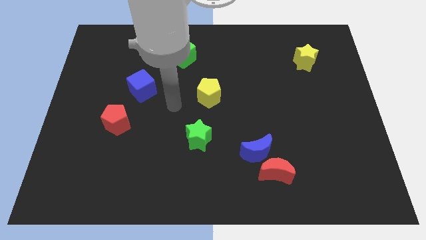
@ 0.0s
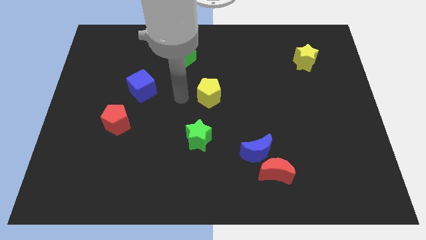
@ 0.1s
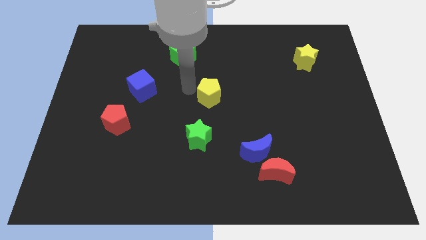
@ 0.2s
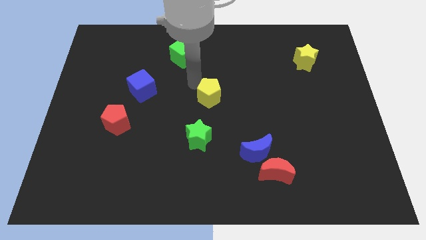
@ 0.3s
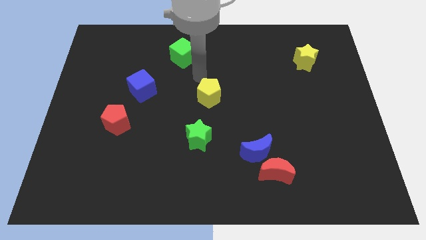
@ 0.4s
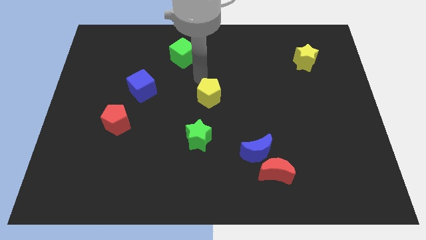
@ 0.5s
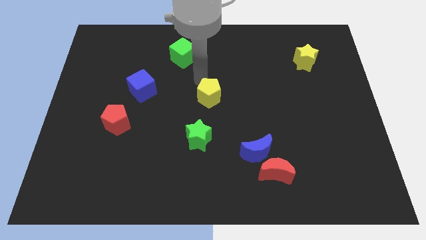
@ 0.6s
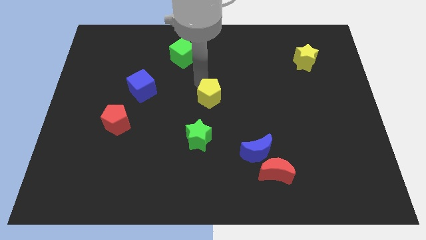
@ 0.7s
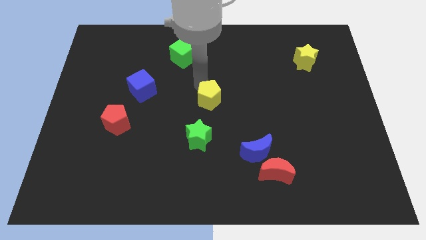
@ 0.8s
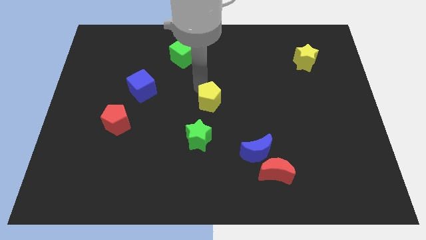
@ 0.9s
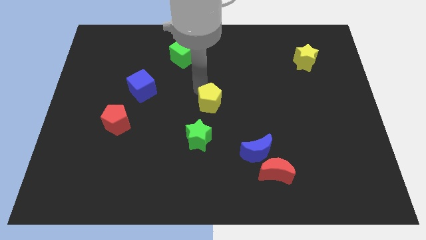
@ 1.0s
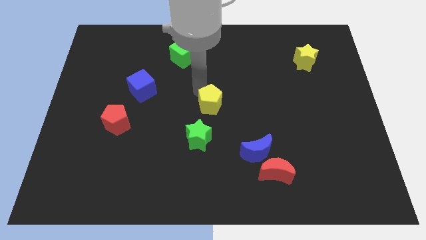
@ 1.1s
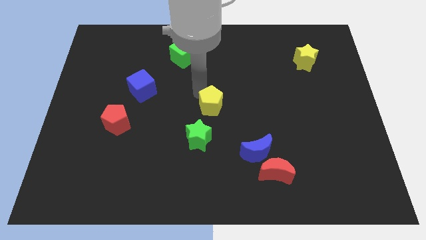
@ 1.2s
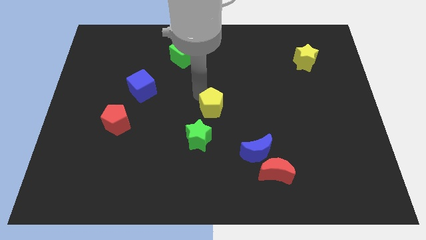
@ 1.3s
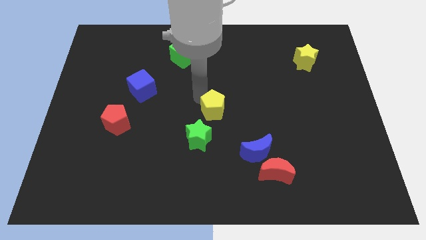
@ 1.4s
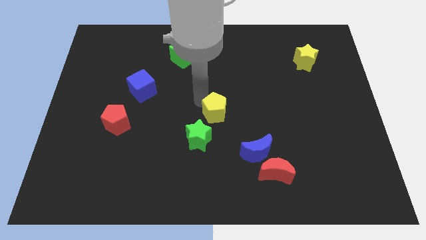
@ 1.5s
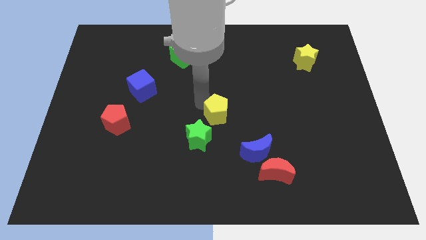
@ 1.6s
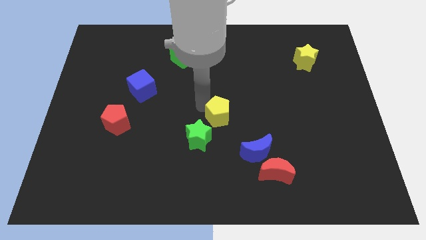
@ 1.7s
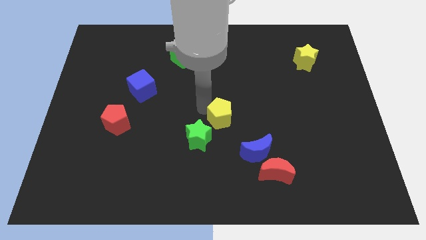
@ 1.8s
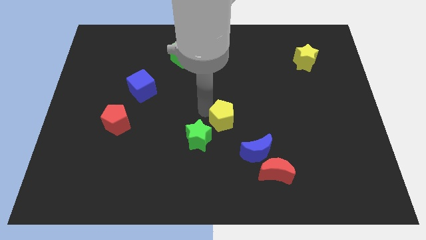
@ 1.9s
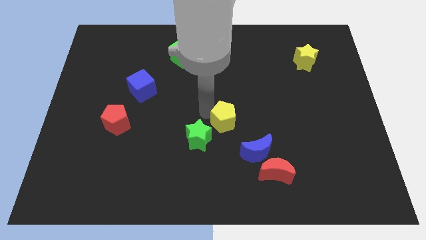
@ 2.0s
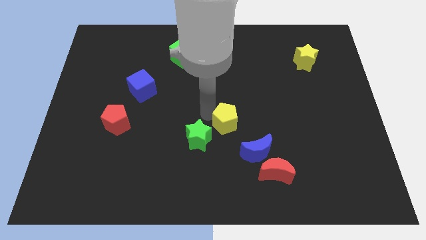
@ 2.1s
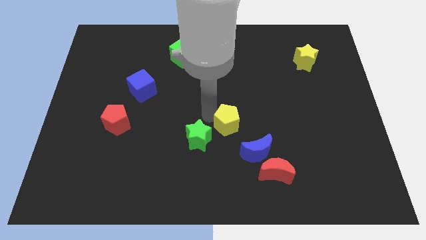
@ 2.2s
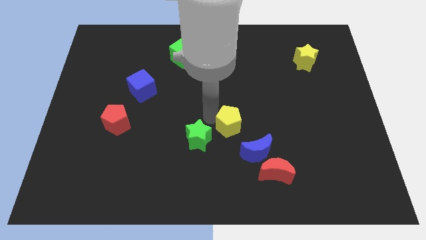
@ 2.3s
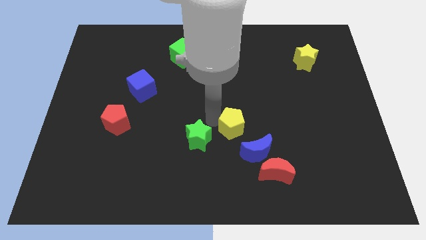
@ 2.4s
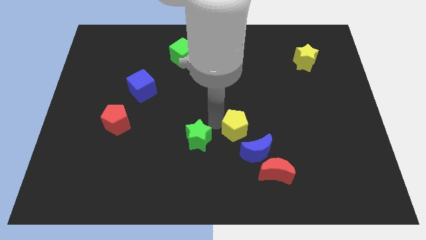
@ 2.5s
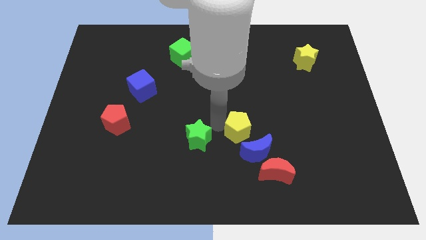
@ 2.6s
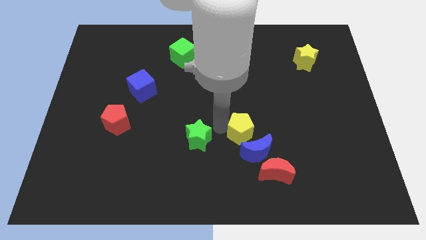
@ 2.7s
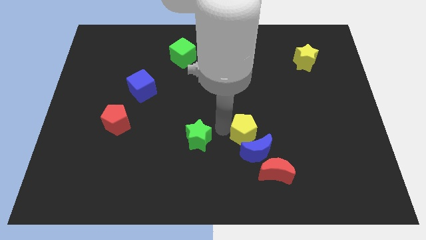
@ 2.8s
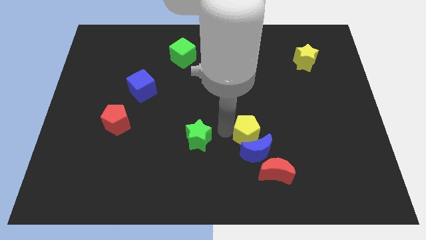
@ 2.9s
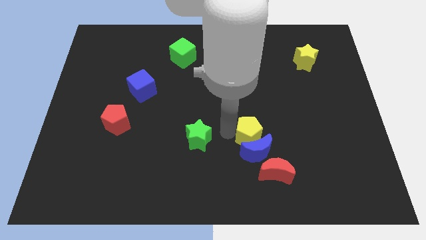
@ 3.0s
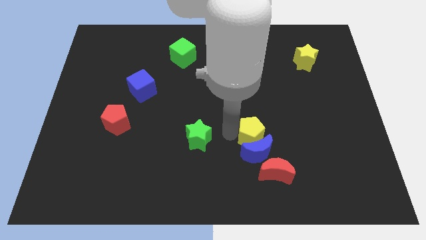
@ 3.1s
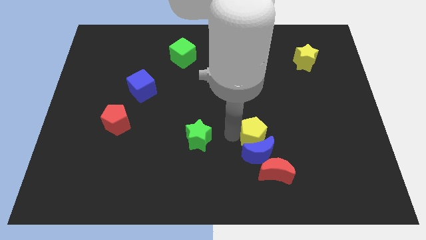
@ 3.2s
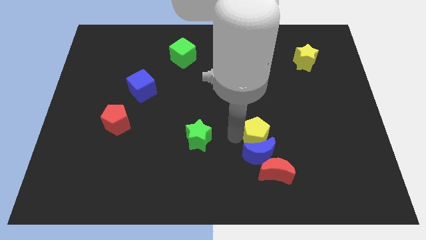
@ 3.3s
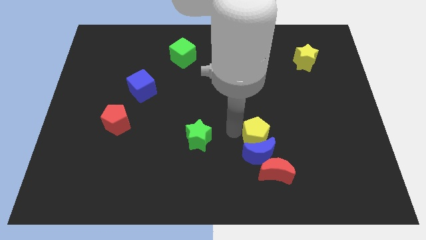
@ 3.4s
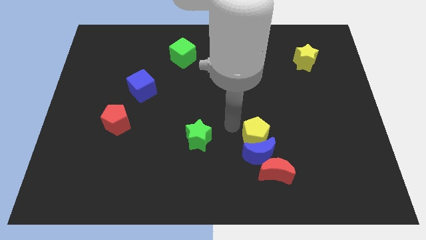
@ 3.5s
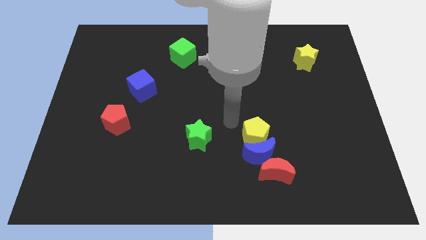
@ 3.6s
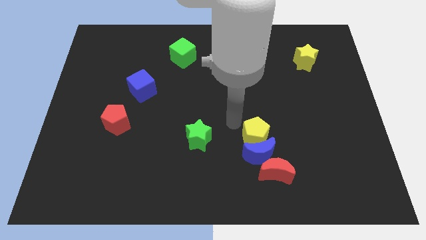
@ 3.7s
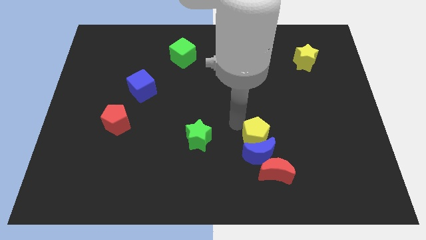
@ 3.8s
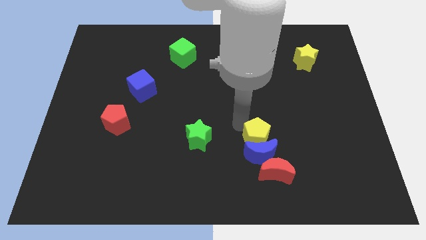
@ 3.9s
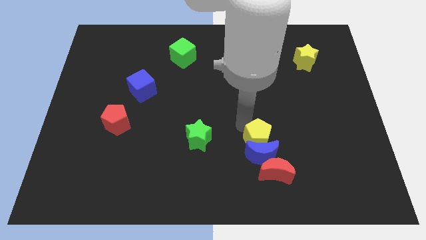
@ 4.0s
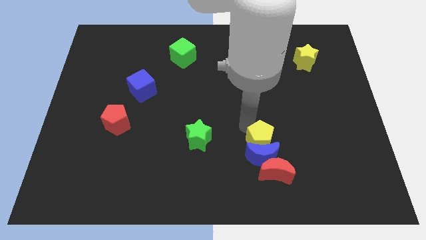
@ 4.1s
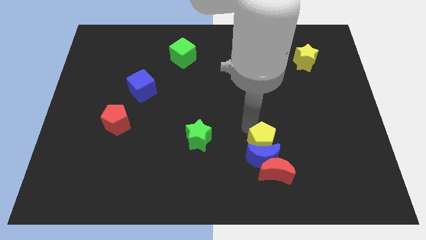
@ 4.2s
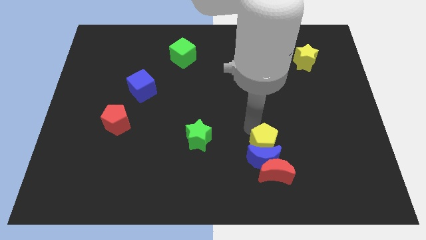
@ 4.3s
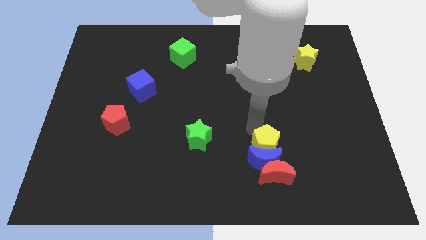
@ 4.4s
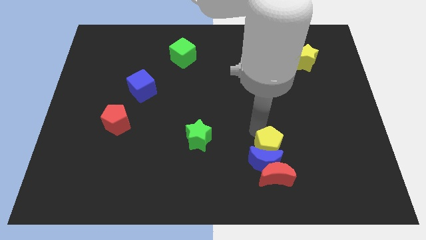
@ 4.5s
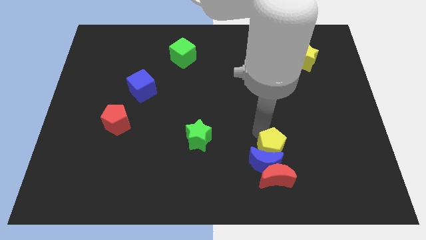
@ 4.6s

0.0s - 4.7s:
push the yellow pentagon diagonally down and to the right

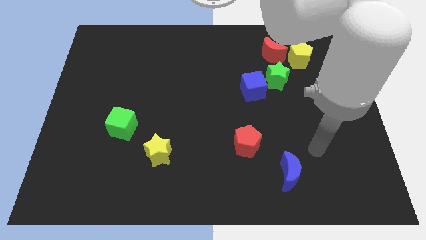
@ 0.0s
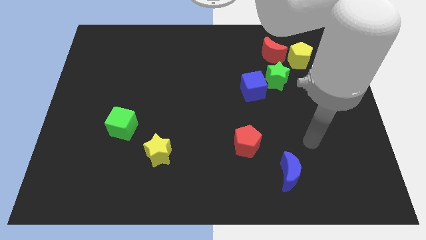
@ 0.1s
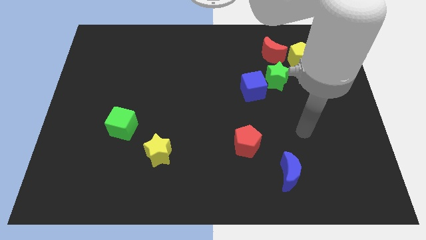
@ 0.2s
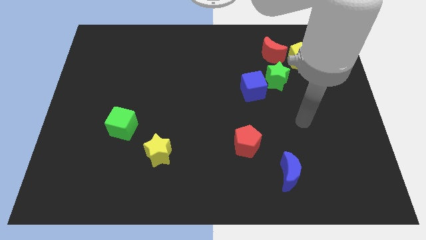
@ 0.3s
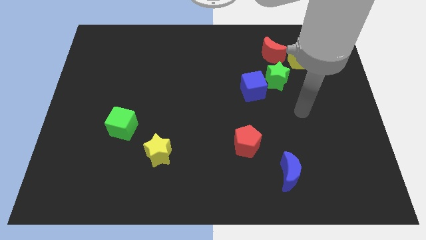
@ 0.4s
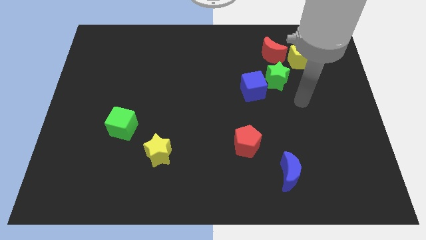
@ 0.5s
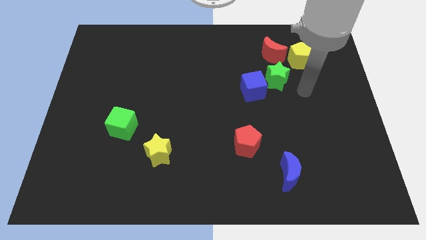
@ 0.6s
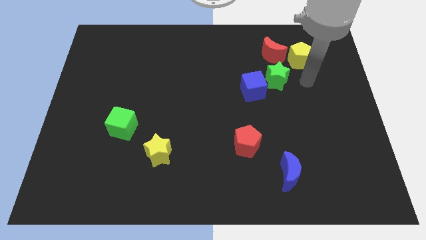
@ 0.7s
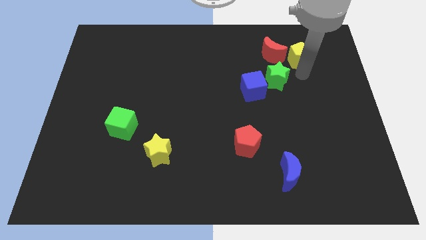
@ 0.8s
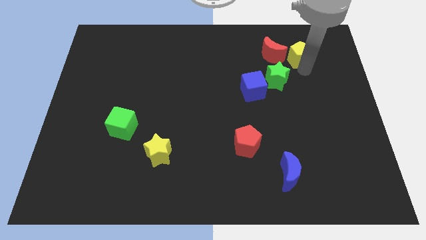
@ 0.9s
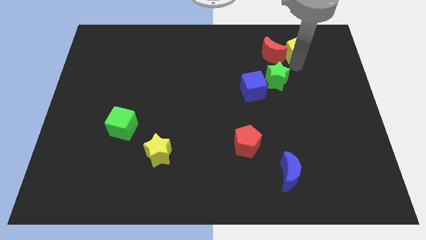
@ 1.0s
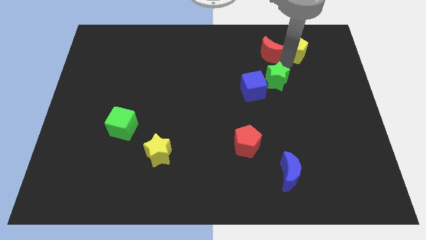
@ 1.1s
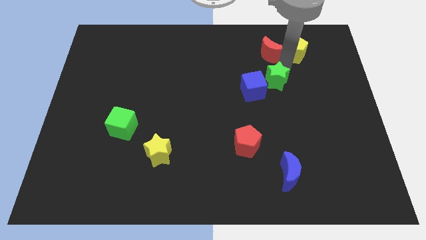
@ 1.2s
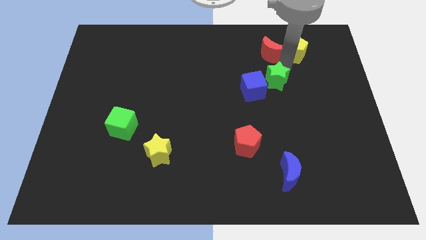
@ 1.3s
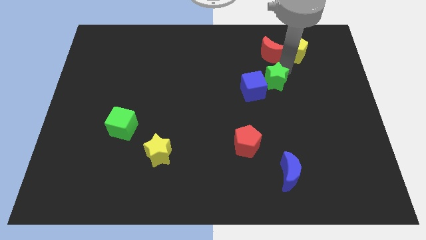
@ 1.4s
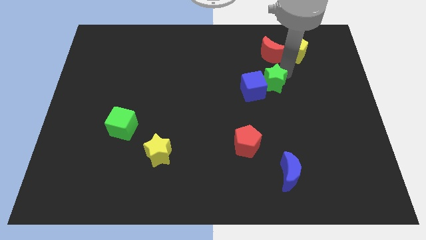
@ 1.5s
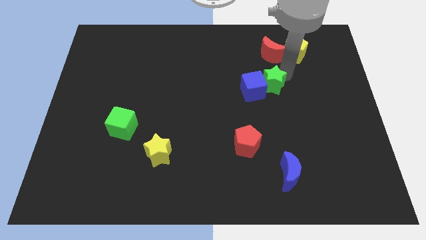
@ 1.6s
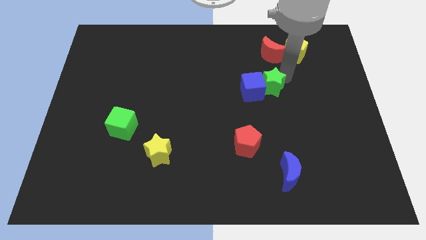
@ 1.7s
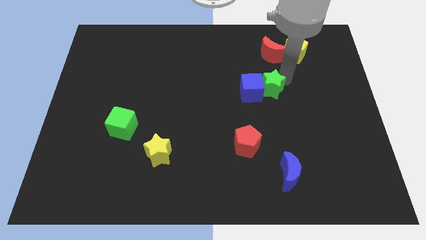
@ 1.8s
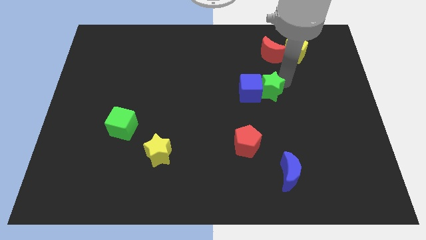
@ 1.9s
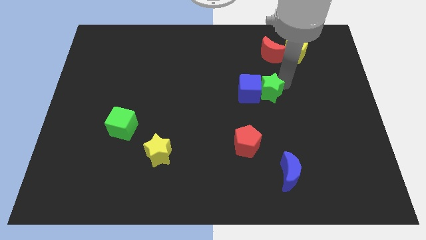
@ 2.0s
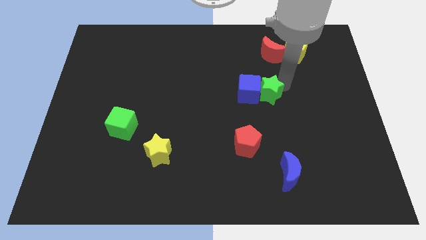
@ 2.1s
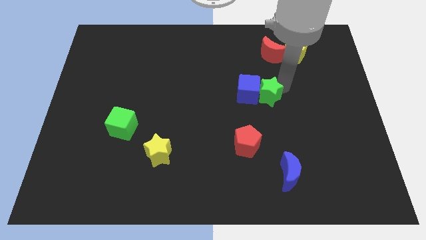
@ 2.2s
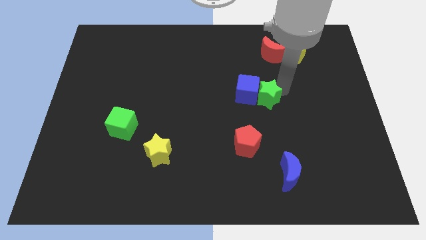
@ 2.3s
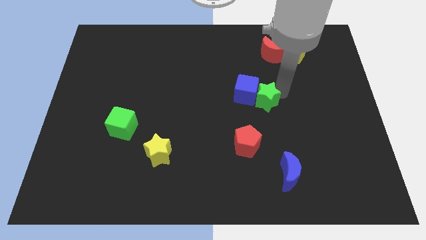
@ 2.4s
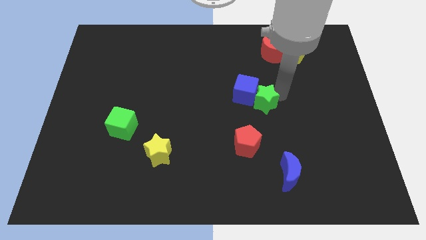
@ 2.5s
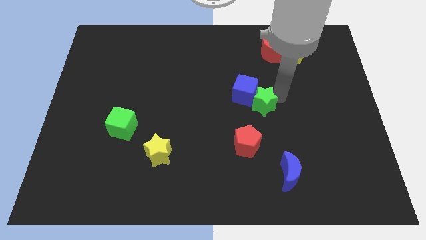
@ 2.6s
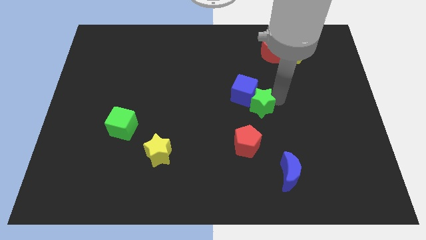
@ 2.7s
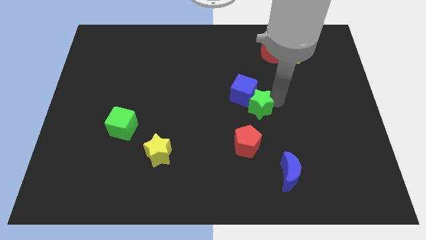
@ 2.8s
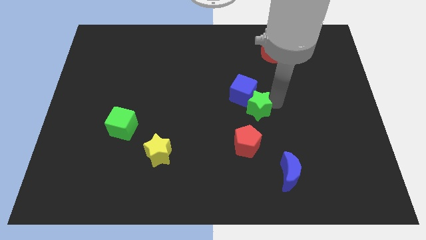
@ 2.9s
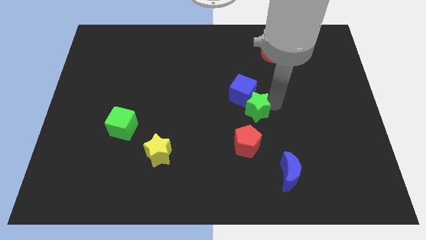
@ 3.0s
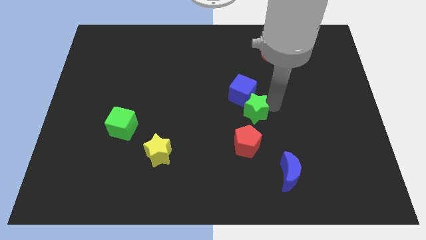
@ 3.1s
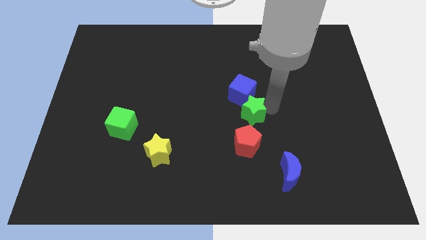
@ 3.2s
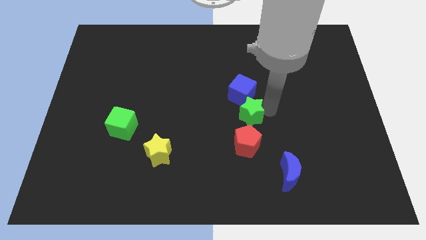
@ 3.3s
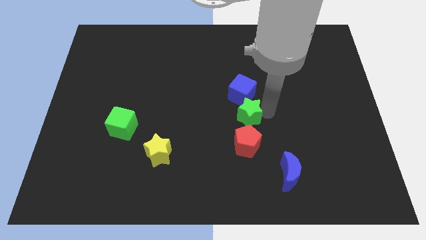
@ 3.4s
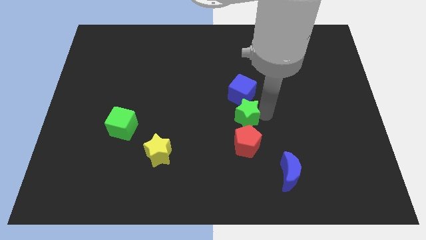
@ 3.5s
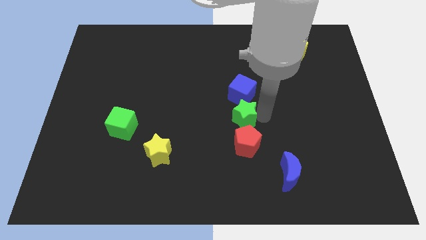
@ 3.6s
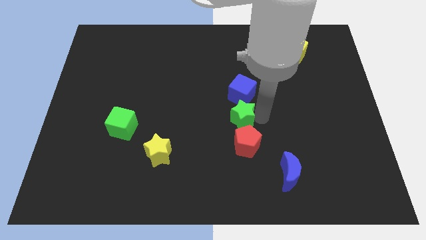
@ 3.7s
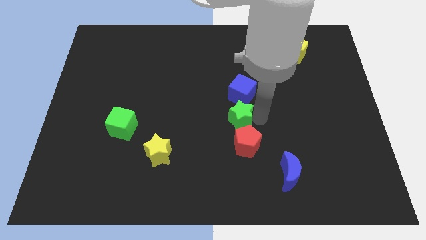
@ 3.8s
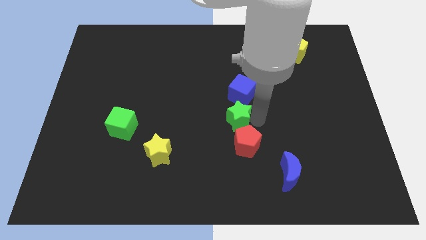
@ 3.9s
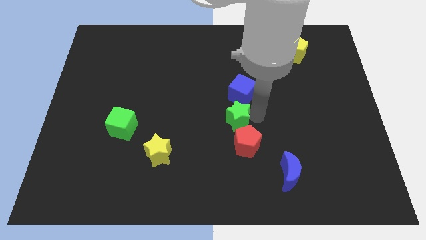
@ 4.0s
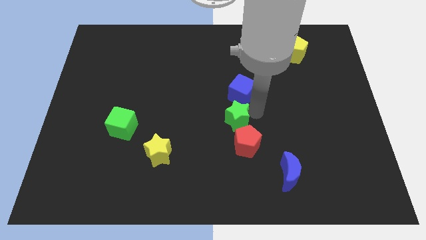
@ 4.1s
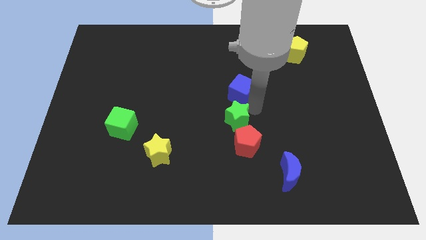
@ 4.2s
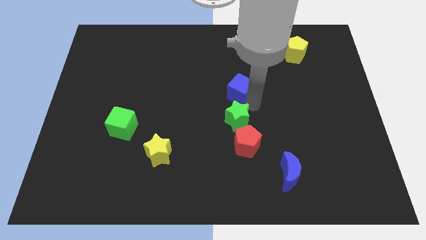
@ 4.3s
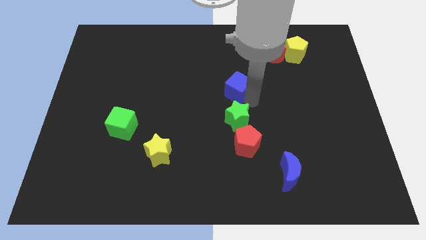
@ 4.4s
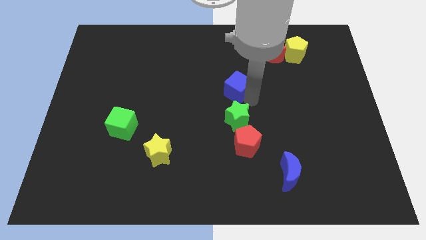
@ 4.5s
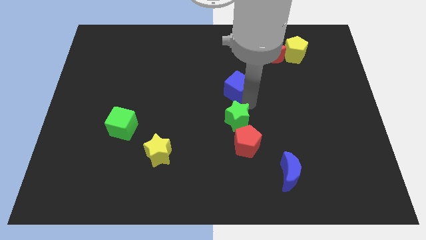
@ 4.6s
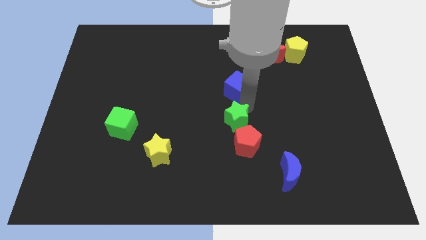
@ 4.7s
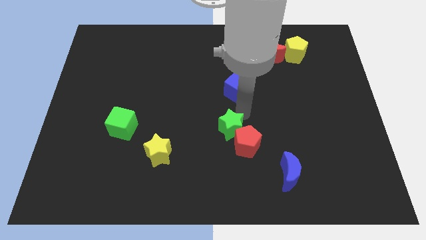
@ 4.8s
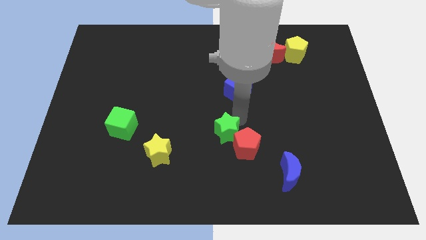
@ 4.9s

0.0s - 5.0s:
push the green star diagonally downwards and to the left
